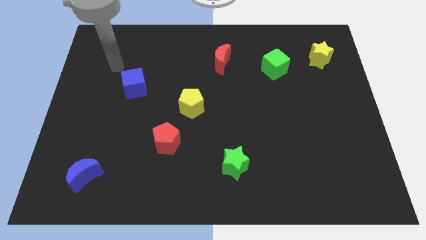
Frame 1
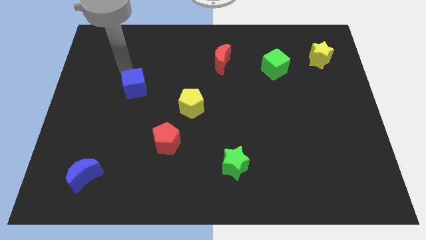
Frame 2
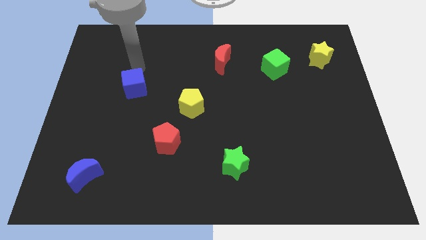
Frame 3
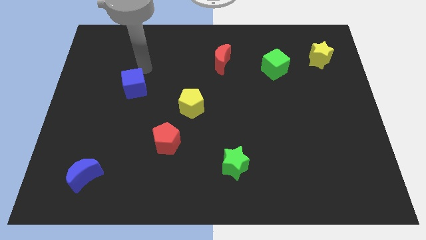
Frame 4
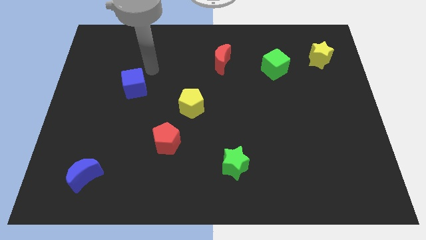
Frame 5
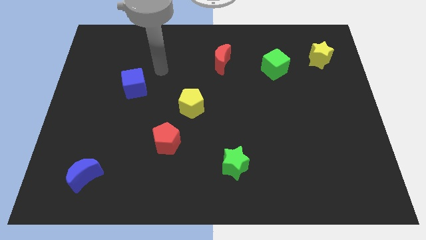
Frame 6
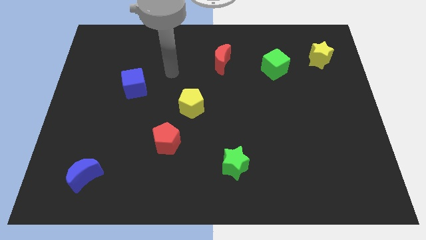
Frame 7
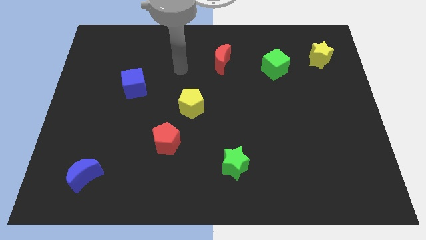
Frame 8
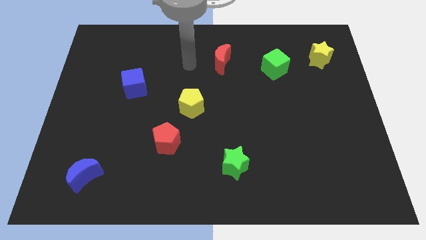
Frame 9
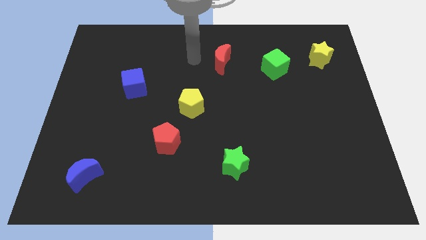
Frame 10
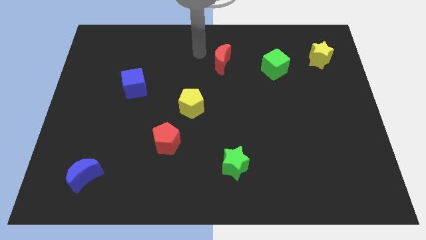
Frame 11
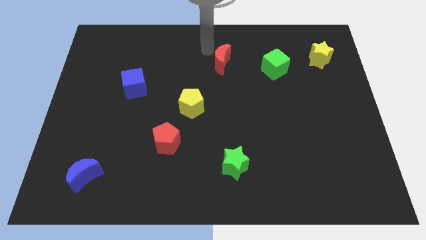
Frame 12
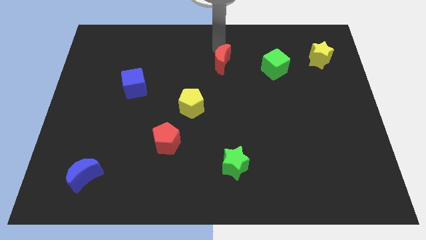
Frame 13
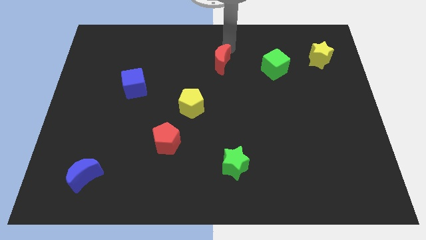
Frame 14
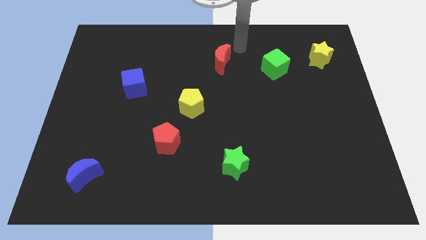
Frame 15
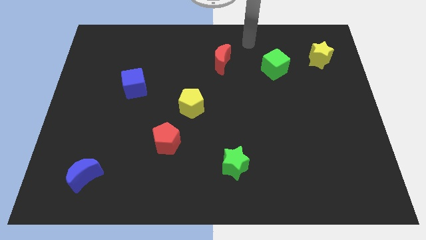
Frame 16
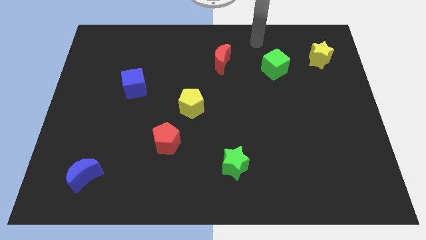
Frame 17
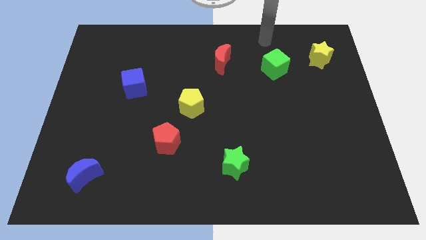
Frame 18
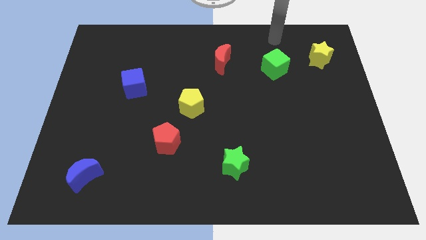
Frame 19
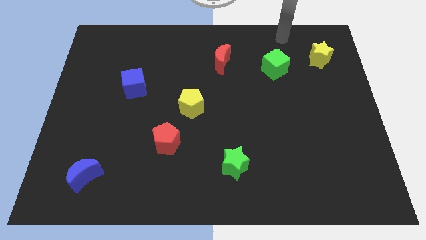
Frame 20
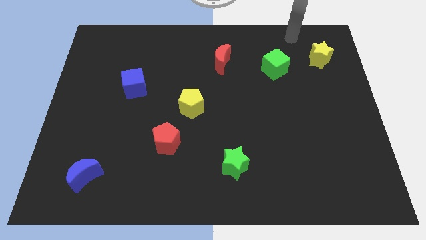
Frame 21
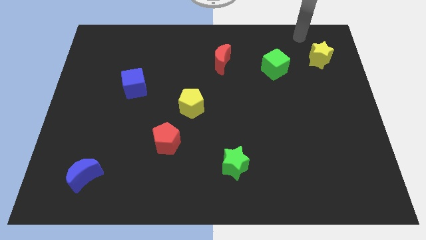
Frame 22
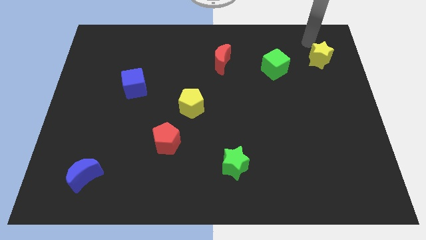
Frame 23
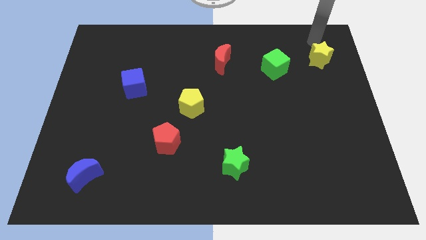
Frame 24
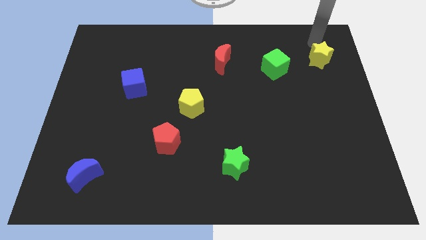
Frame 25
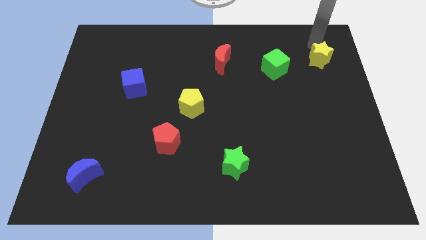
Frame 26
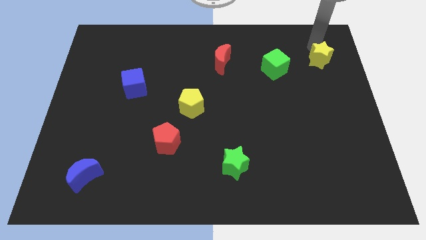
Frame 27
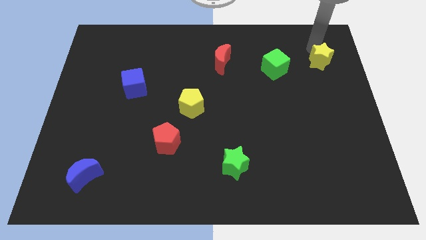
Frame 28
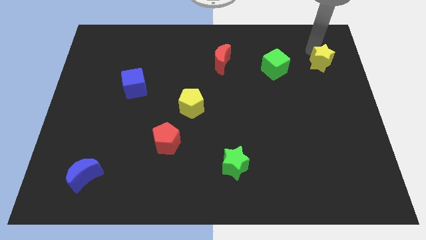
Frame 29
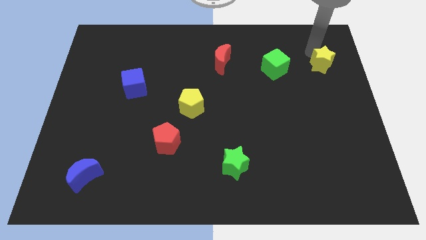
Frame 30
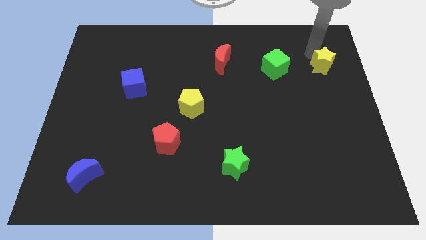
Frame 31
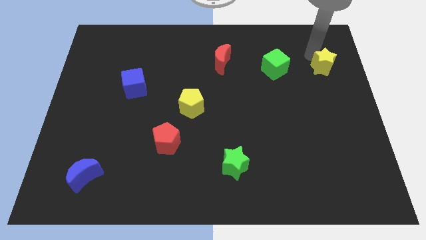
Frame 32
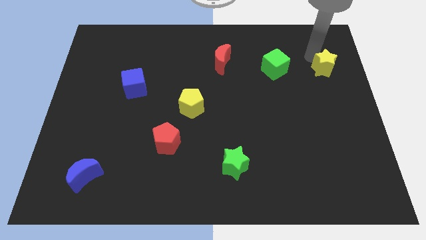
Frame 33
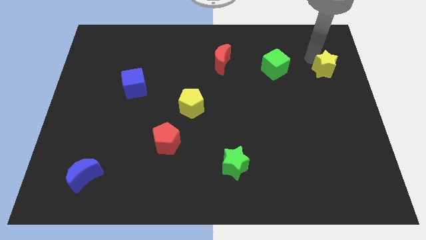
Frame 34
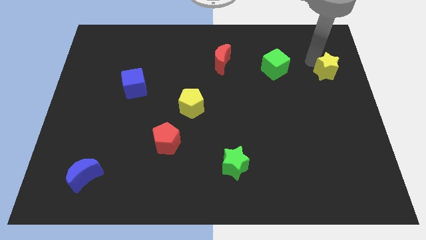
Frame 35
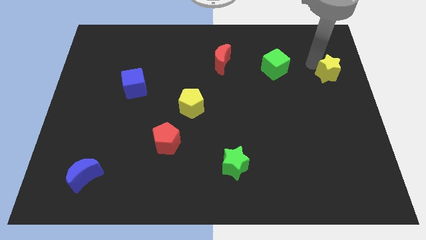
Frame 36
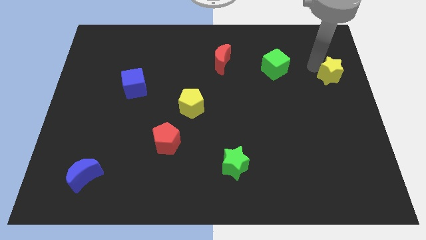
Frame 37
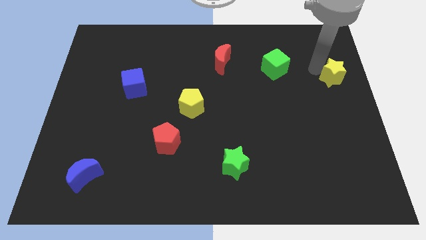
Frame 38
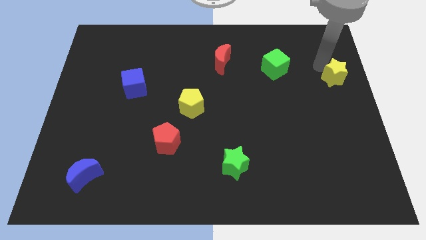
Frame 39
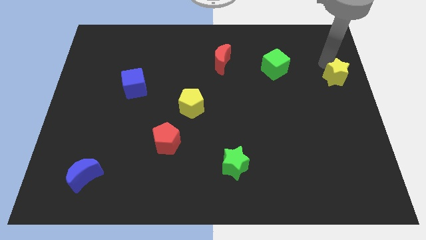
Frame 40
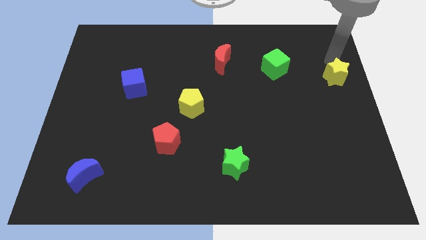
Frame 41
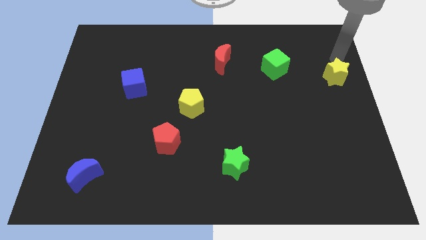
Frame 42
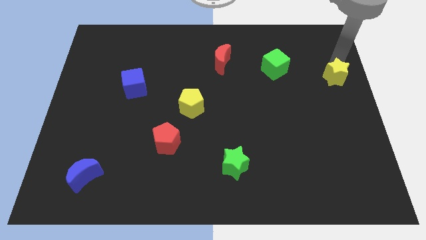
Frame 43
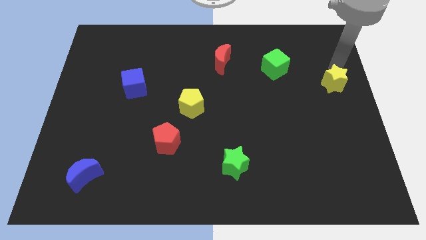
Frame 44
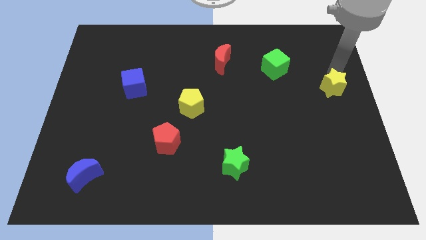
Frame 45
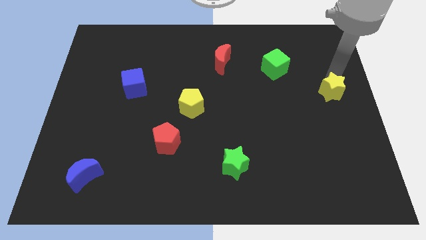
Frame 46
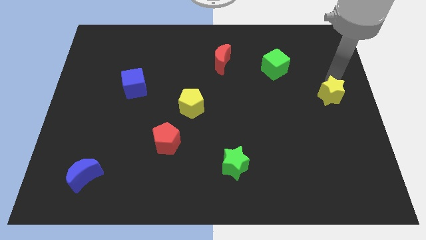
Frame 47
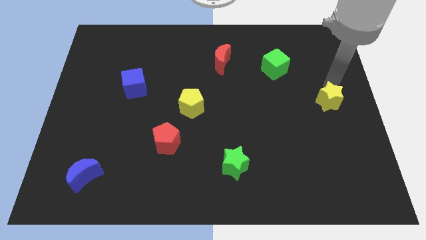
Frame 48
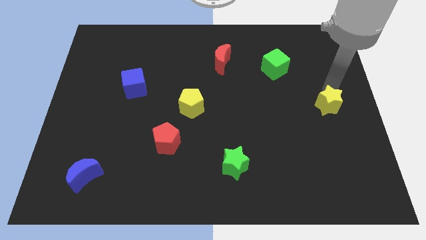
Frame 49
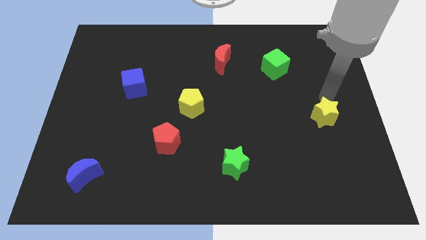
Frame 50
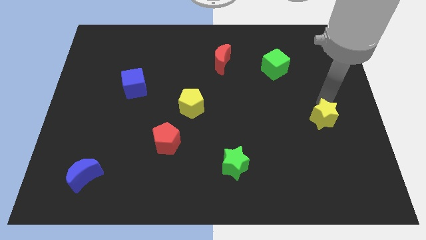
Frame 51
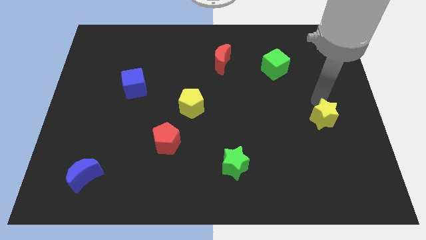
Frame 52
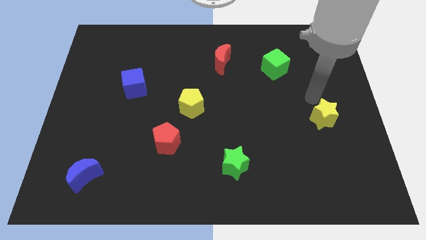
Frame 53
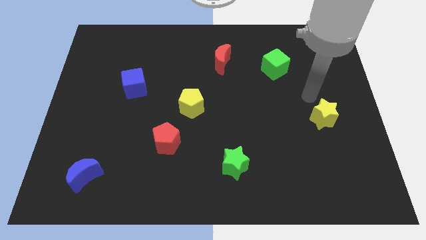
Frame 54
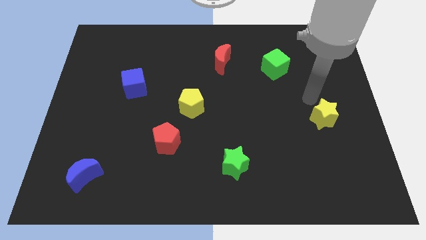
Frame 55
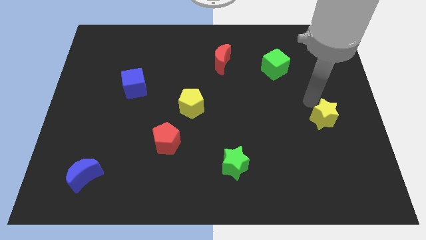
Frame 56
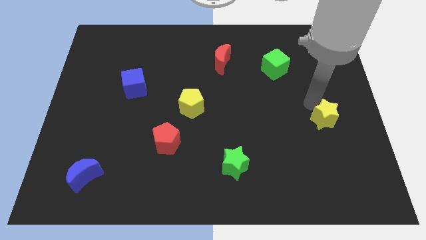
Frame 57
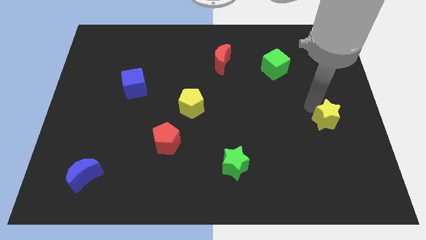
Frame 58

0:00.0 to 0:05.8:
push the yellow star down

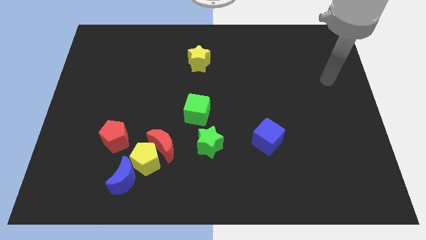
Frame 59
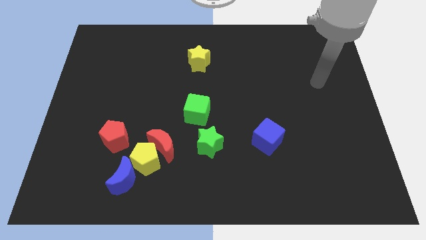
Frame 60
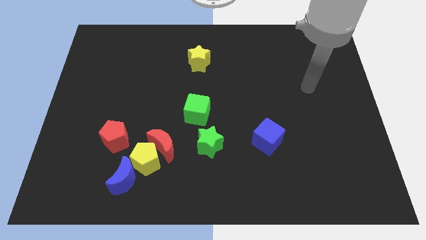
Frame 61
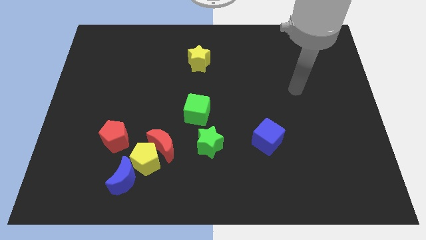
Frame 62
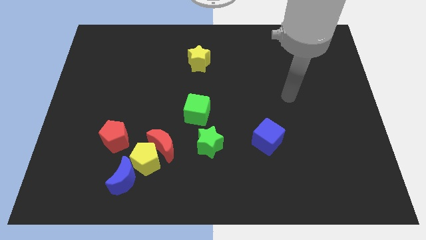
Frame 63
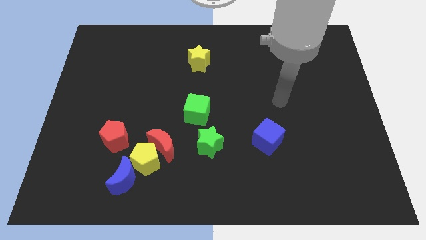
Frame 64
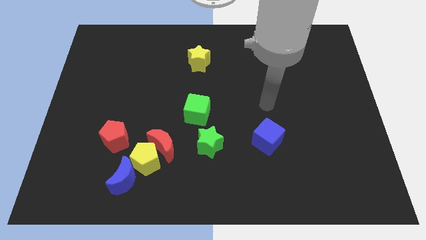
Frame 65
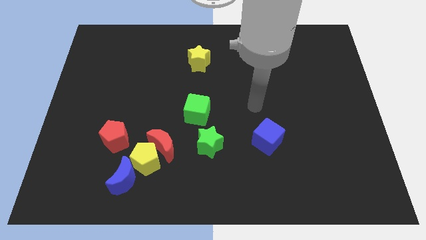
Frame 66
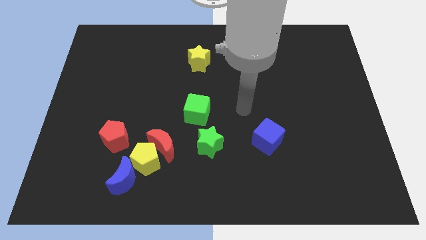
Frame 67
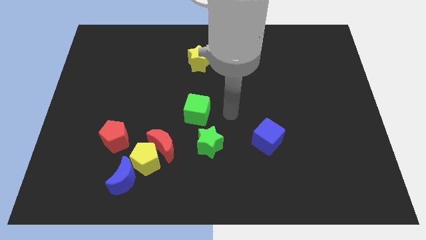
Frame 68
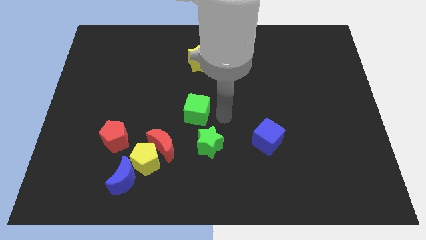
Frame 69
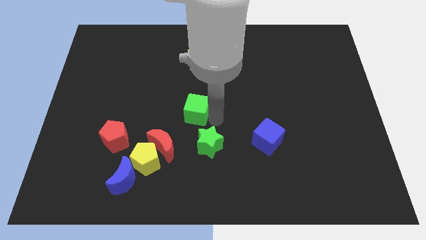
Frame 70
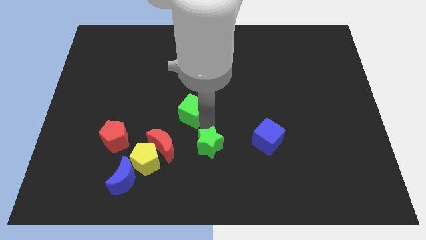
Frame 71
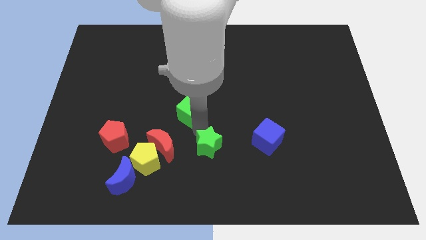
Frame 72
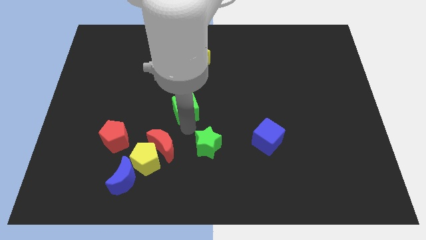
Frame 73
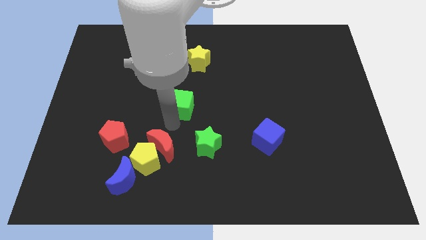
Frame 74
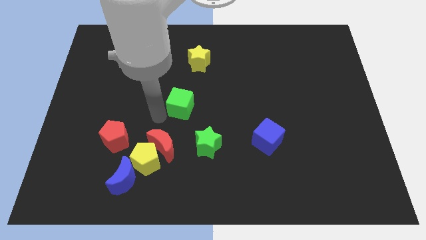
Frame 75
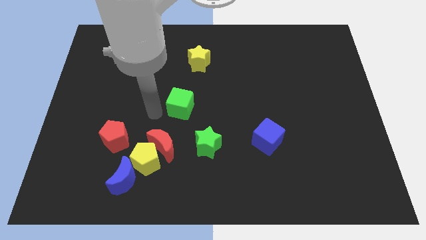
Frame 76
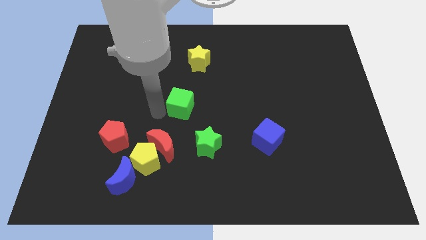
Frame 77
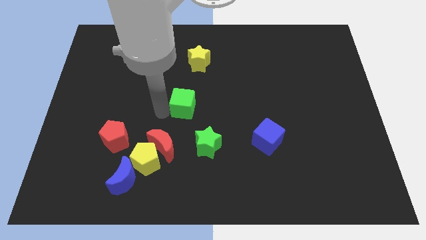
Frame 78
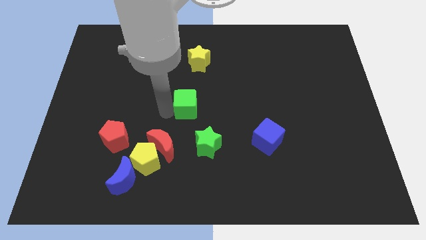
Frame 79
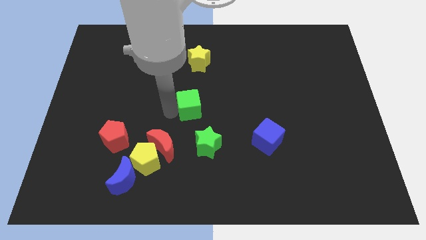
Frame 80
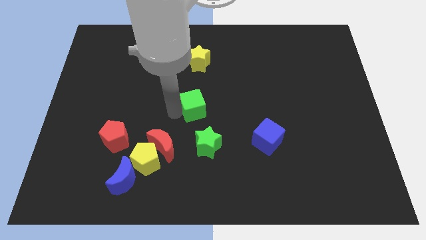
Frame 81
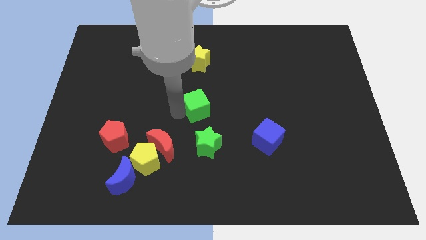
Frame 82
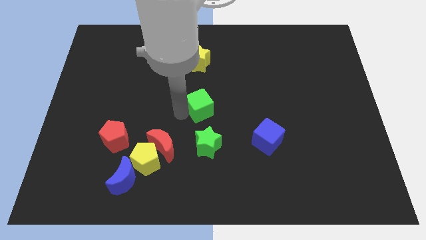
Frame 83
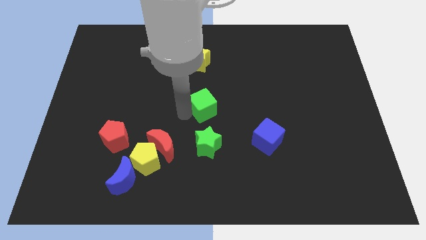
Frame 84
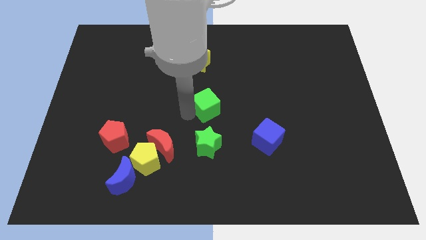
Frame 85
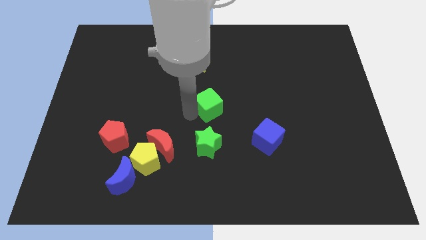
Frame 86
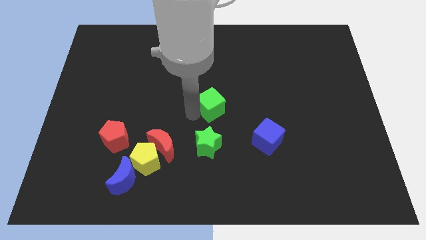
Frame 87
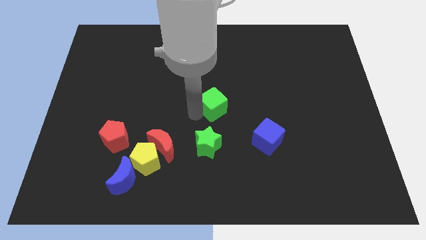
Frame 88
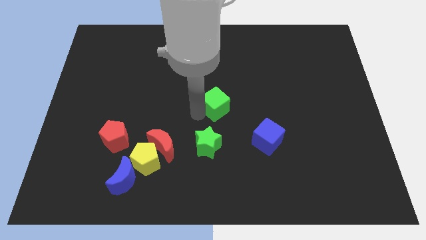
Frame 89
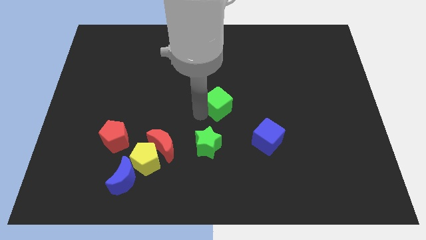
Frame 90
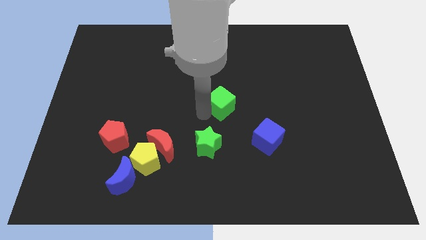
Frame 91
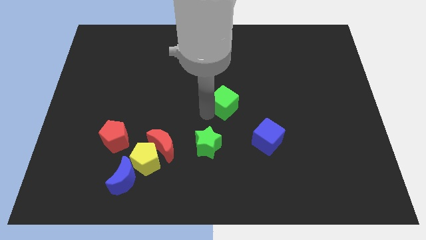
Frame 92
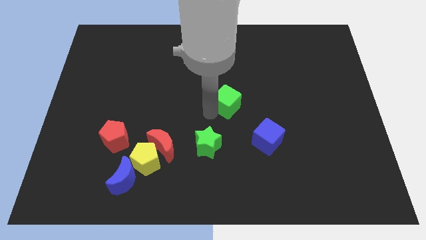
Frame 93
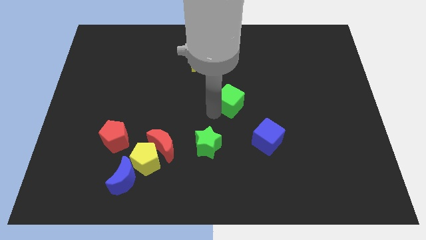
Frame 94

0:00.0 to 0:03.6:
move the green cube a bit upwards and to the right diagonally
